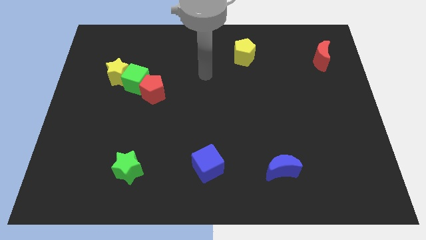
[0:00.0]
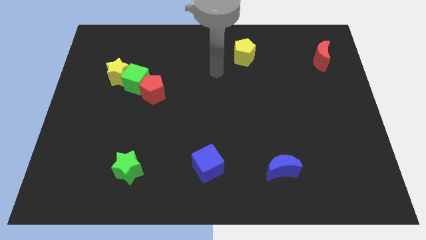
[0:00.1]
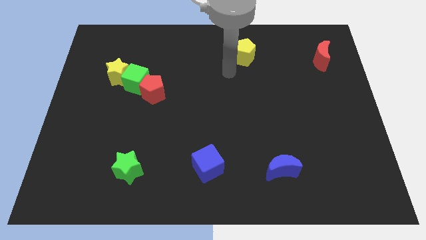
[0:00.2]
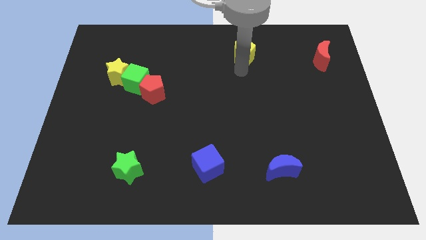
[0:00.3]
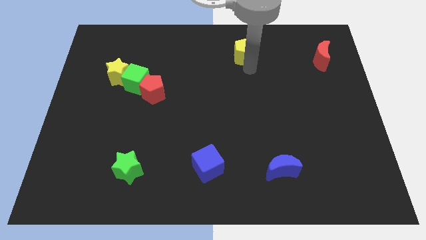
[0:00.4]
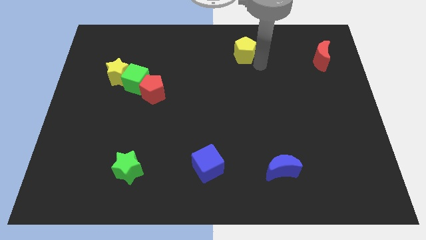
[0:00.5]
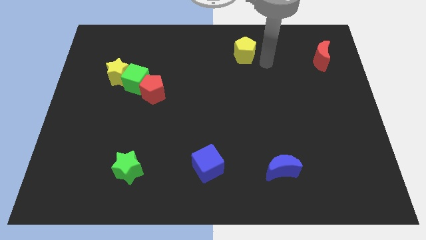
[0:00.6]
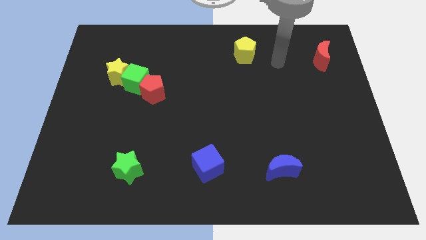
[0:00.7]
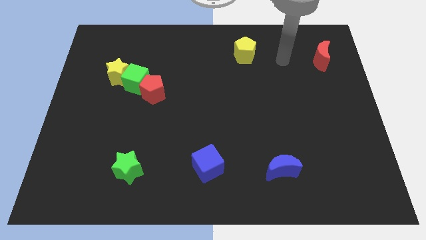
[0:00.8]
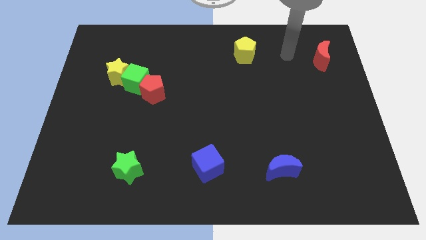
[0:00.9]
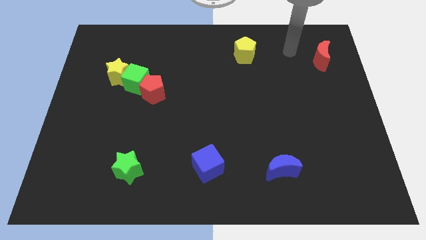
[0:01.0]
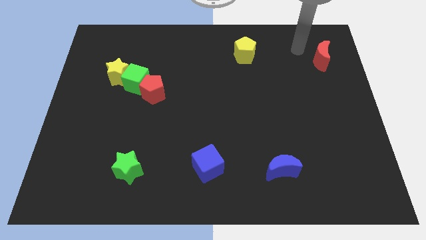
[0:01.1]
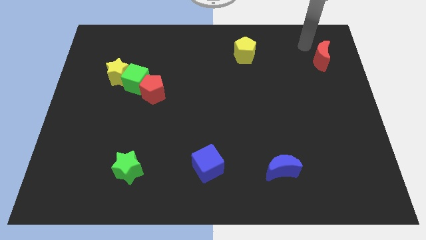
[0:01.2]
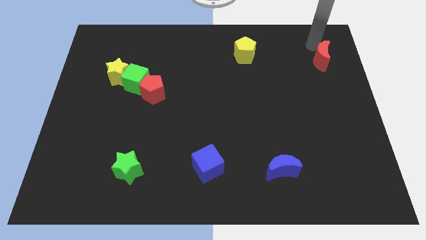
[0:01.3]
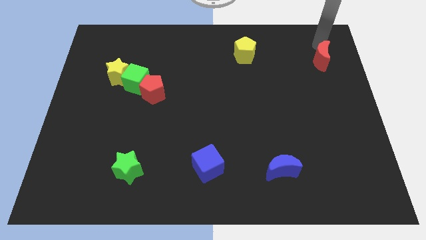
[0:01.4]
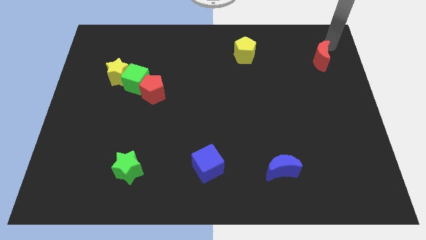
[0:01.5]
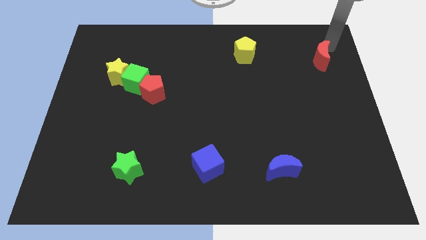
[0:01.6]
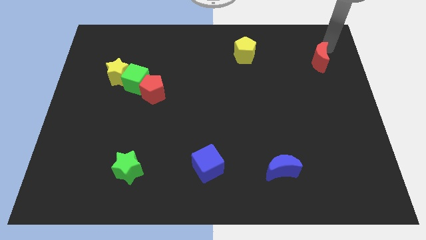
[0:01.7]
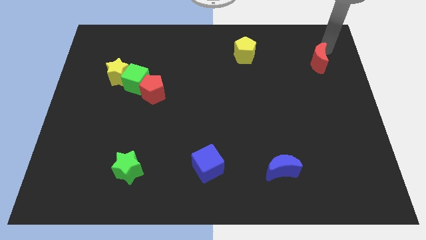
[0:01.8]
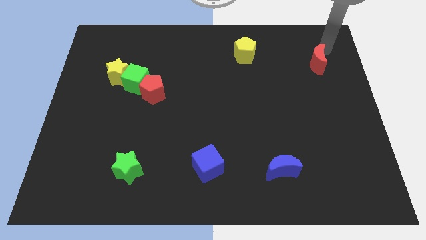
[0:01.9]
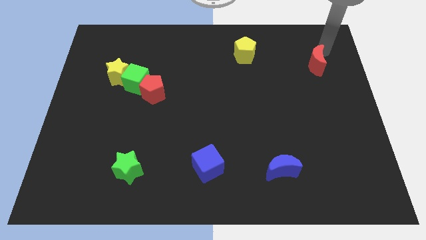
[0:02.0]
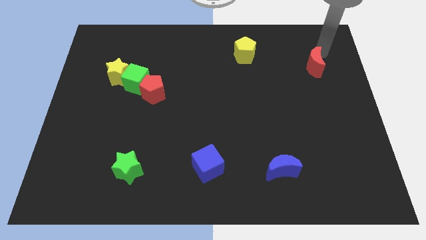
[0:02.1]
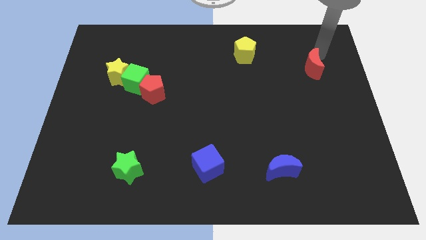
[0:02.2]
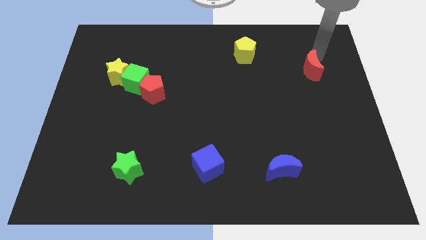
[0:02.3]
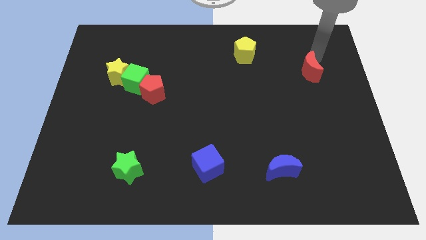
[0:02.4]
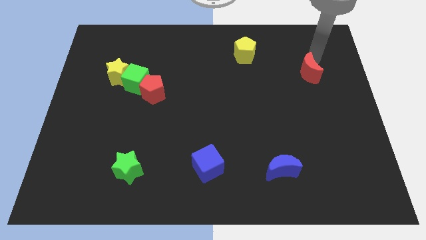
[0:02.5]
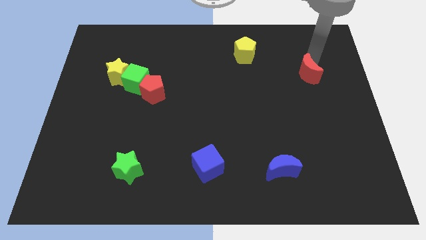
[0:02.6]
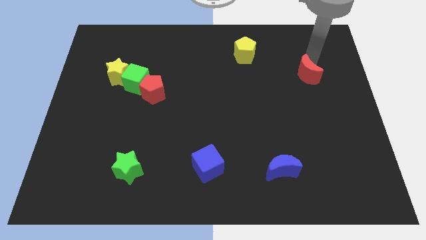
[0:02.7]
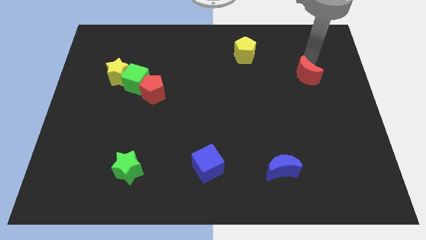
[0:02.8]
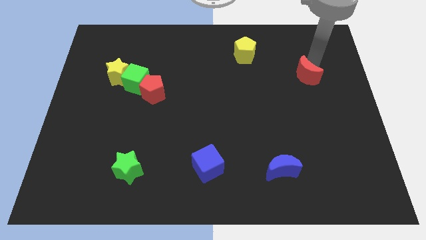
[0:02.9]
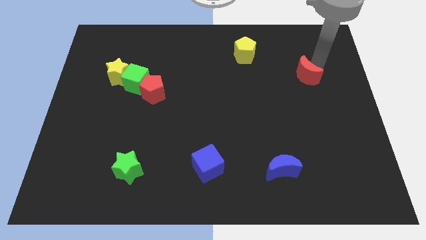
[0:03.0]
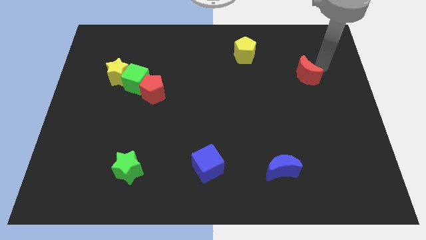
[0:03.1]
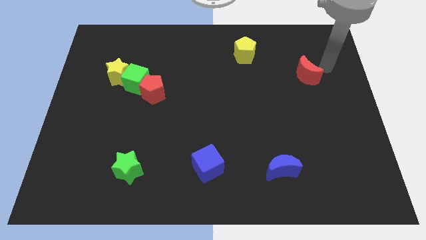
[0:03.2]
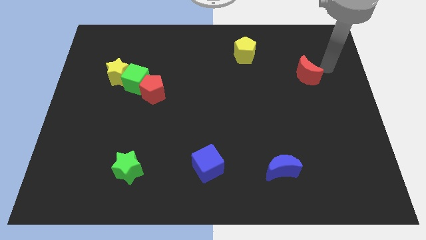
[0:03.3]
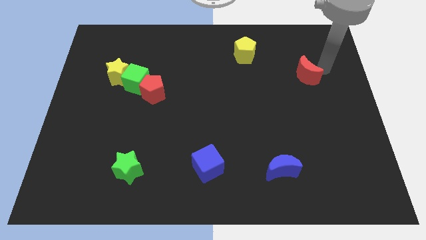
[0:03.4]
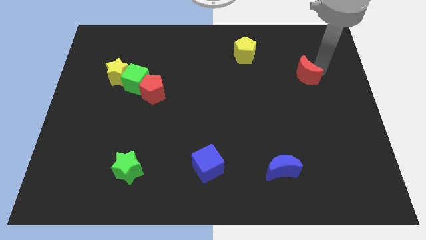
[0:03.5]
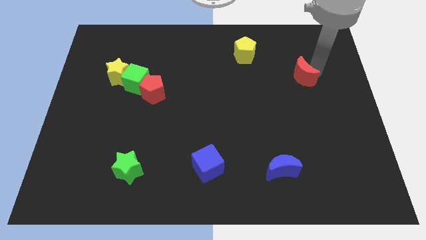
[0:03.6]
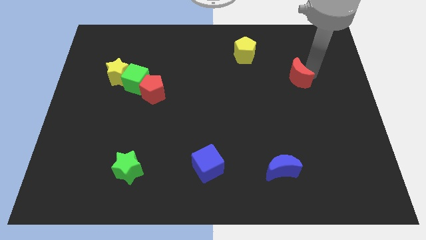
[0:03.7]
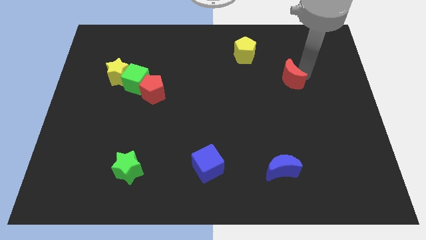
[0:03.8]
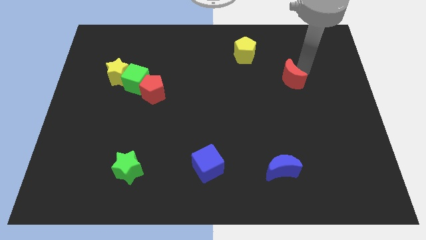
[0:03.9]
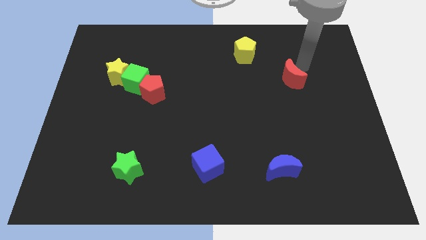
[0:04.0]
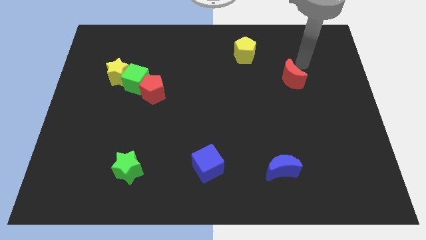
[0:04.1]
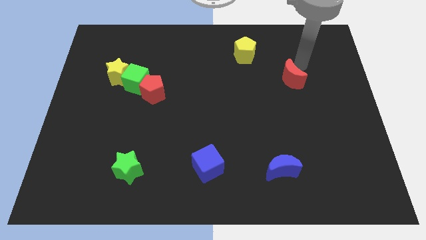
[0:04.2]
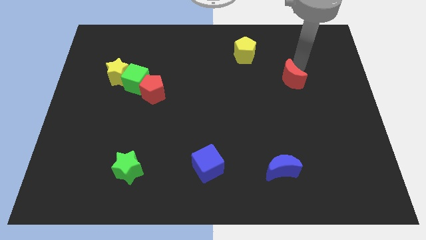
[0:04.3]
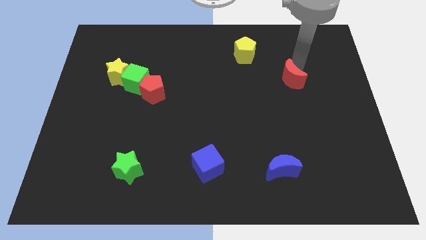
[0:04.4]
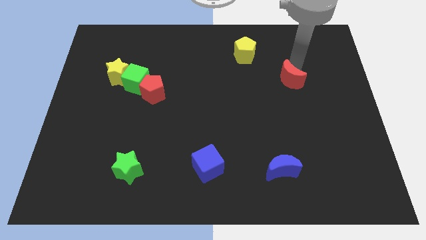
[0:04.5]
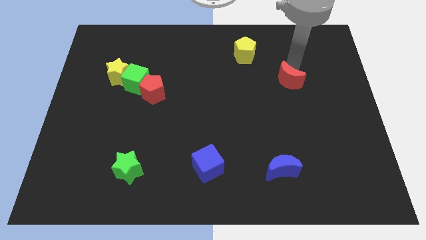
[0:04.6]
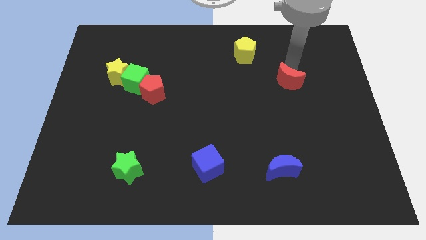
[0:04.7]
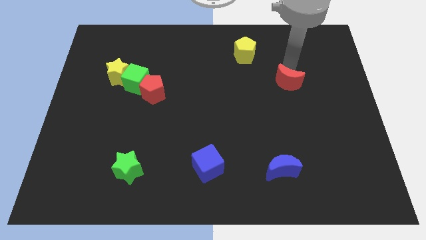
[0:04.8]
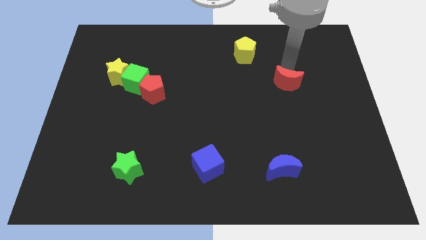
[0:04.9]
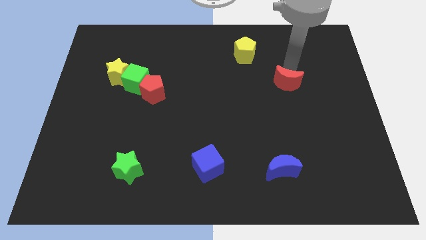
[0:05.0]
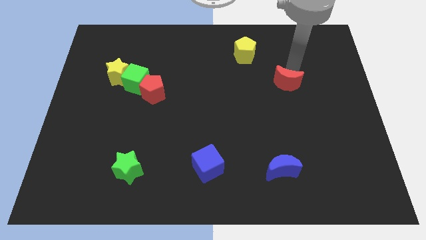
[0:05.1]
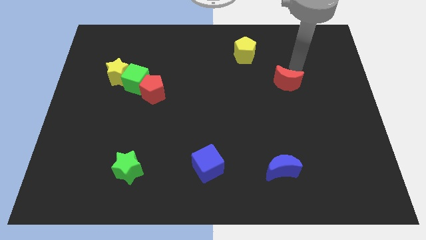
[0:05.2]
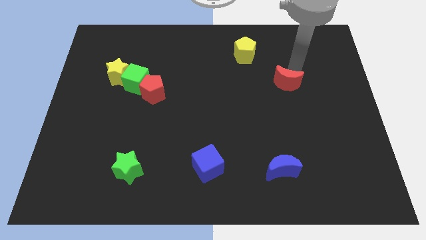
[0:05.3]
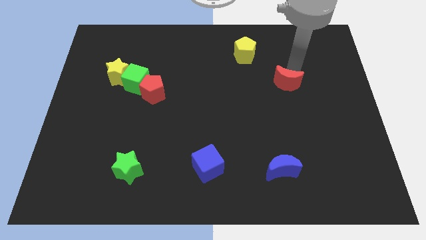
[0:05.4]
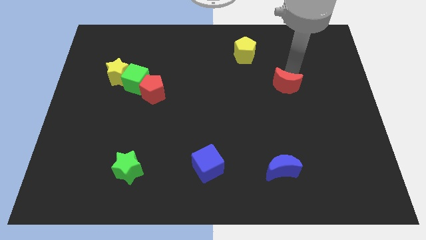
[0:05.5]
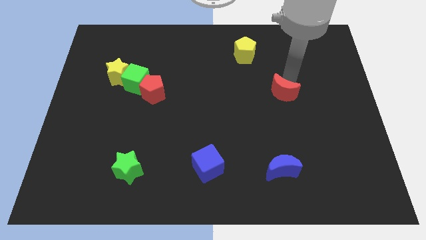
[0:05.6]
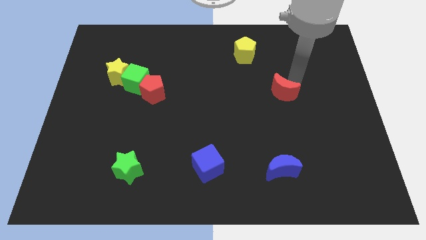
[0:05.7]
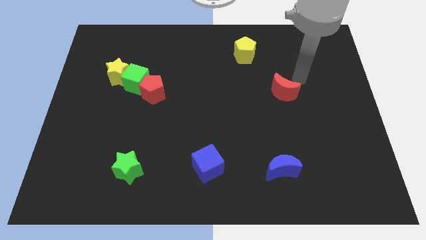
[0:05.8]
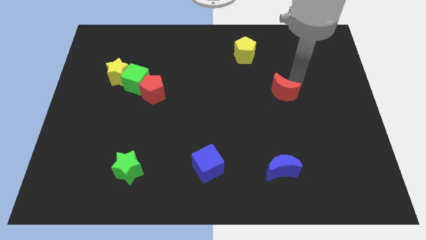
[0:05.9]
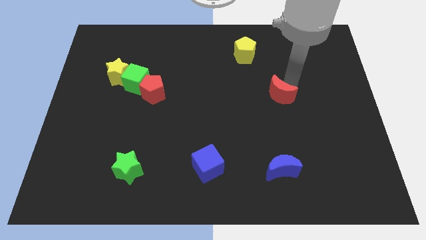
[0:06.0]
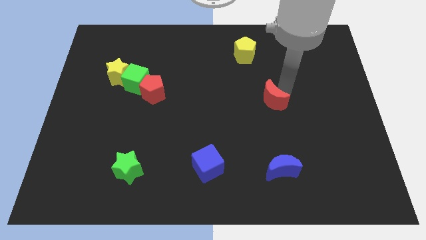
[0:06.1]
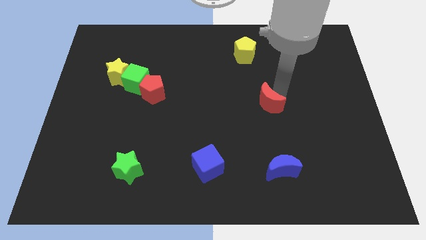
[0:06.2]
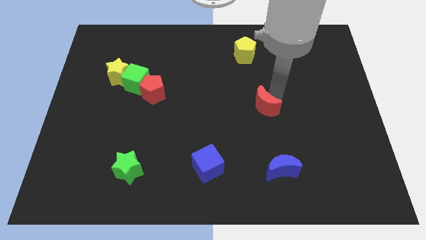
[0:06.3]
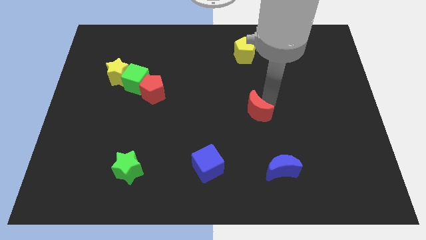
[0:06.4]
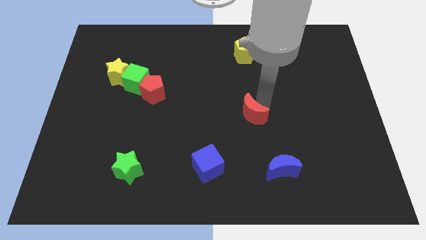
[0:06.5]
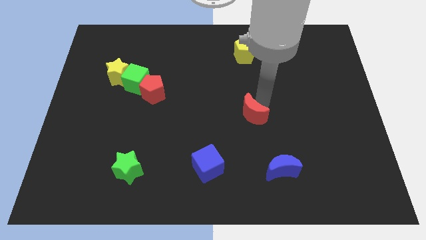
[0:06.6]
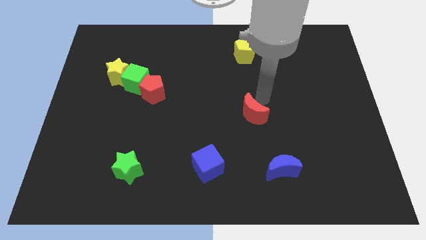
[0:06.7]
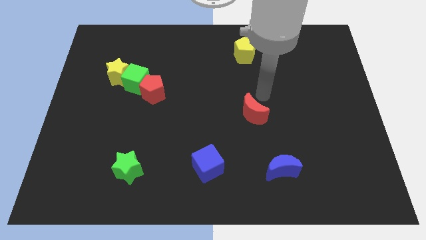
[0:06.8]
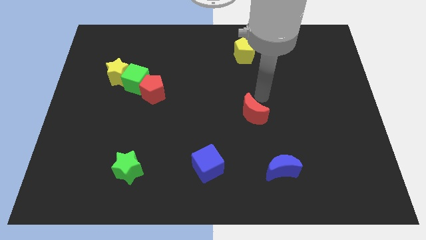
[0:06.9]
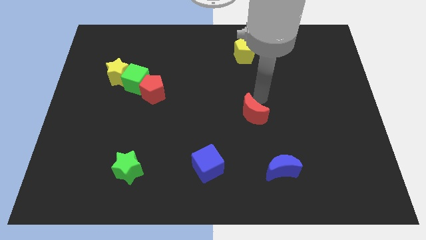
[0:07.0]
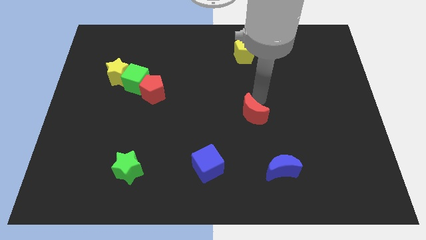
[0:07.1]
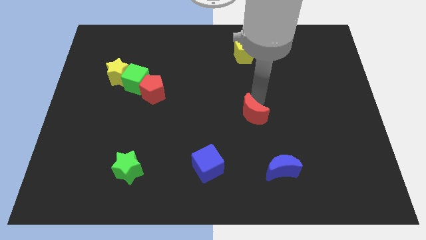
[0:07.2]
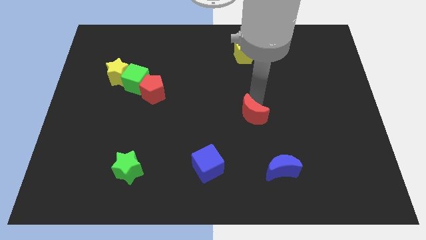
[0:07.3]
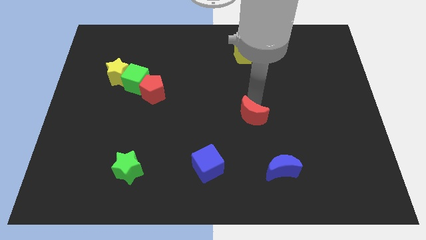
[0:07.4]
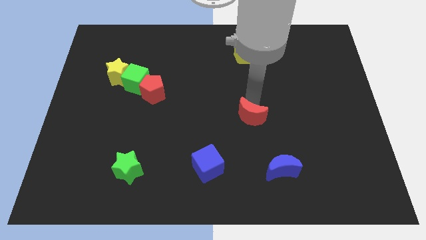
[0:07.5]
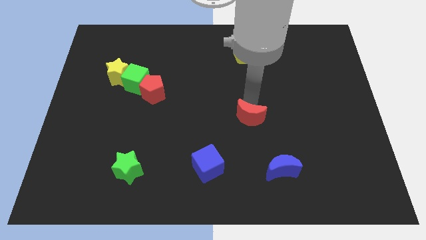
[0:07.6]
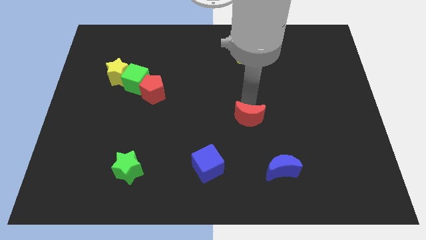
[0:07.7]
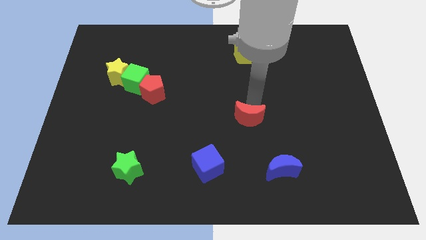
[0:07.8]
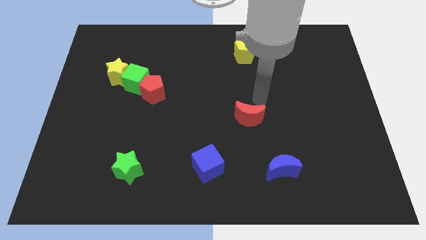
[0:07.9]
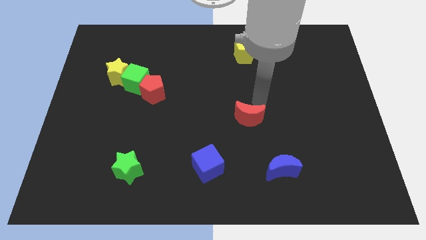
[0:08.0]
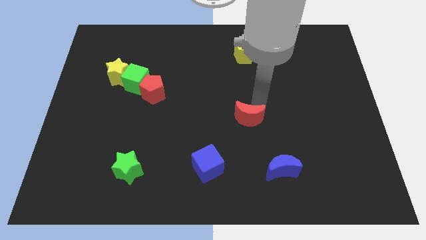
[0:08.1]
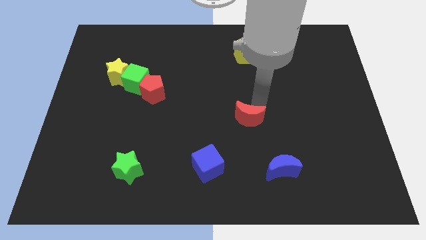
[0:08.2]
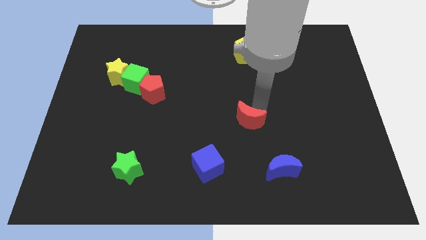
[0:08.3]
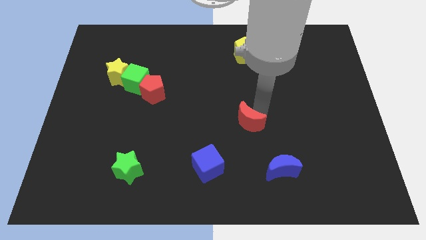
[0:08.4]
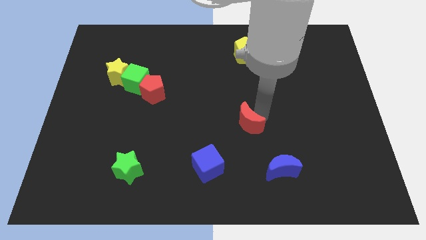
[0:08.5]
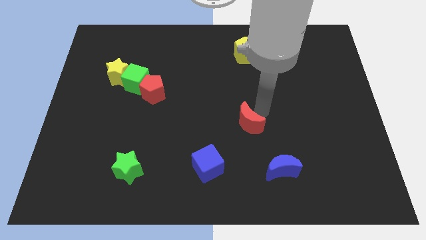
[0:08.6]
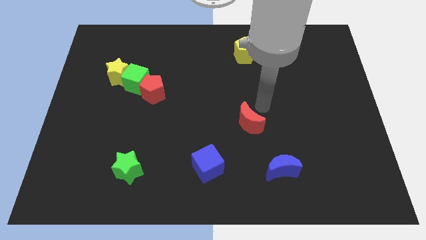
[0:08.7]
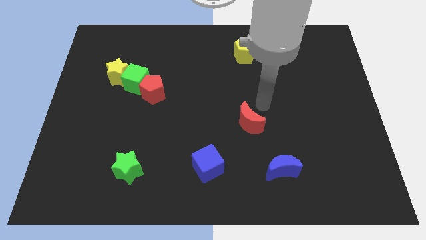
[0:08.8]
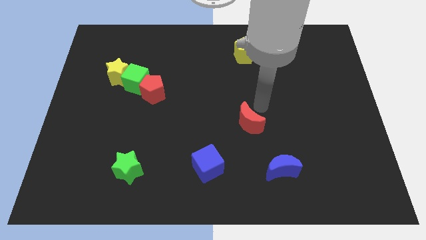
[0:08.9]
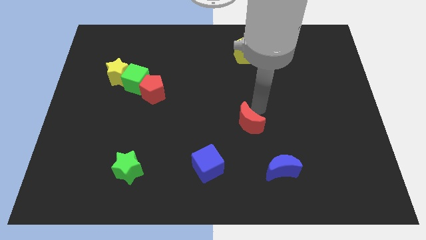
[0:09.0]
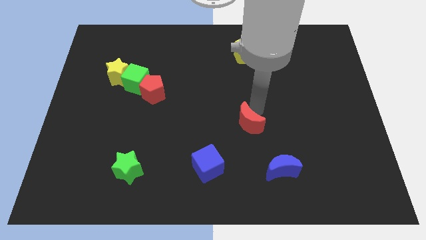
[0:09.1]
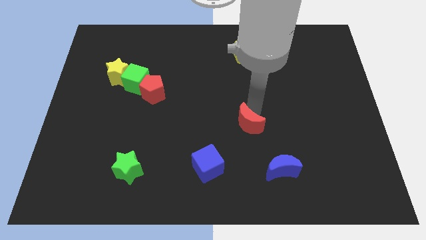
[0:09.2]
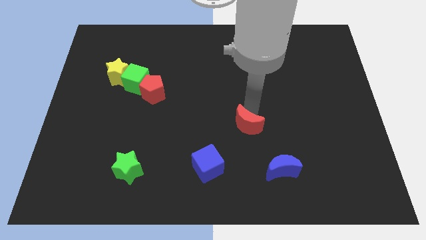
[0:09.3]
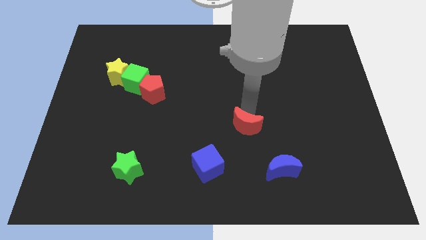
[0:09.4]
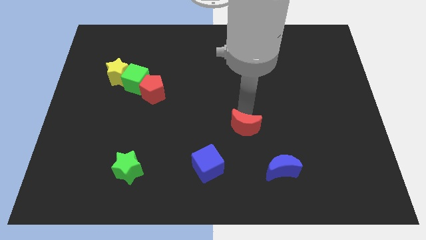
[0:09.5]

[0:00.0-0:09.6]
slide the red moon to the top right of the blue cube
